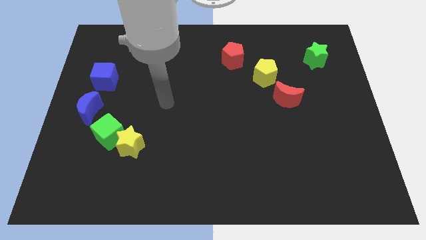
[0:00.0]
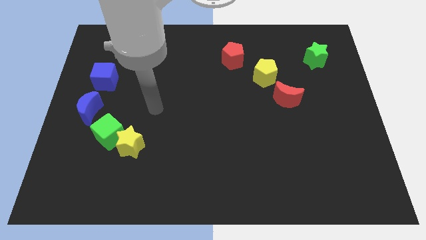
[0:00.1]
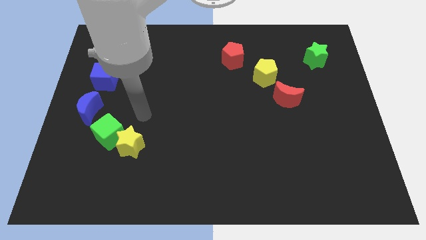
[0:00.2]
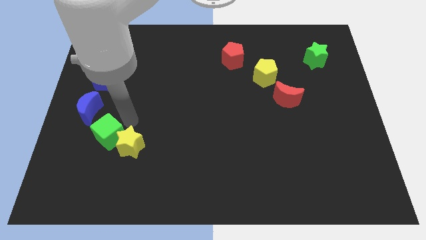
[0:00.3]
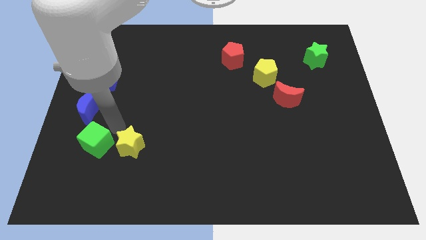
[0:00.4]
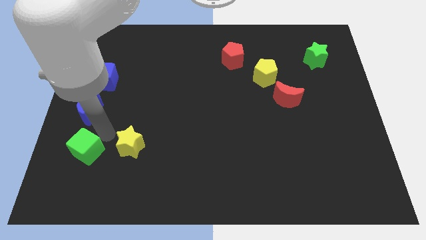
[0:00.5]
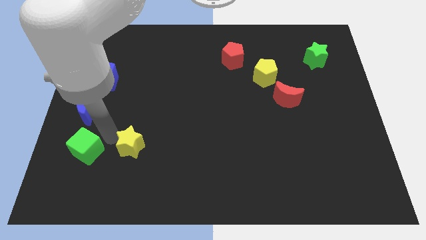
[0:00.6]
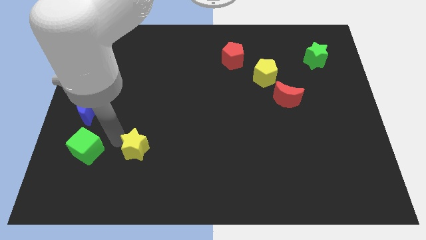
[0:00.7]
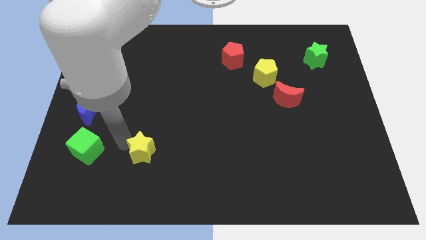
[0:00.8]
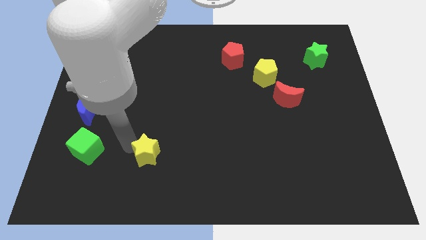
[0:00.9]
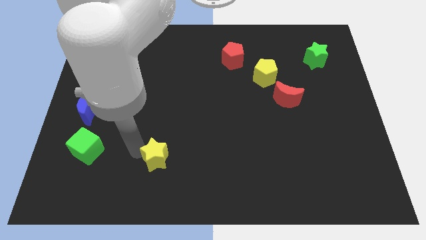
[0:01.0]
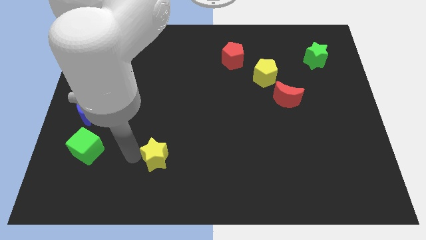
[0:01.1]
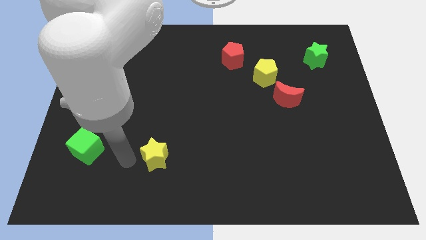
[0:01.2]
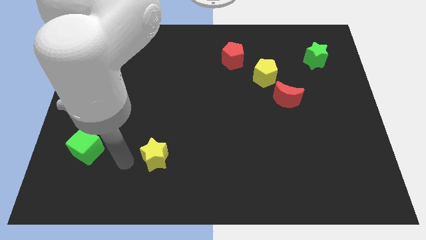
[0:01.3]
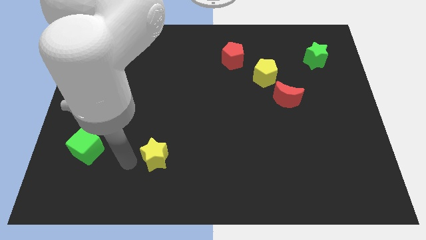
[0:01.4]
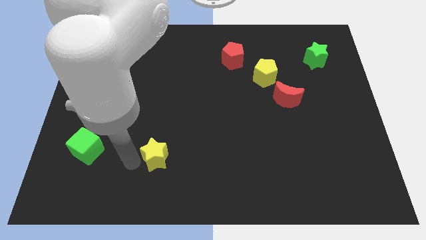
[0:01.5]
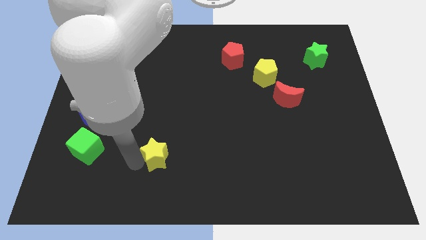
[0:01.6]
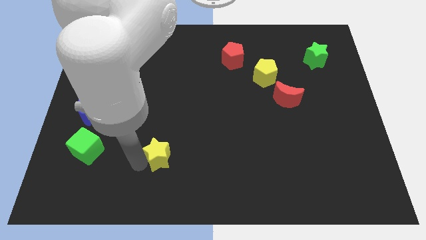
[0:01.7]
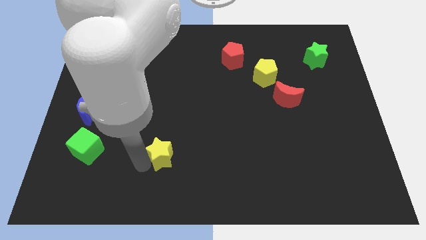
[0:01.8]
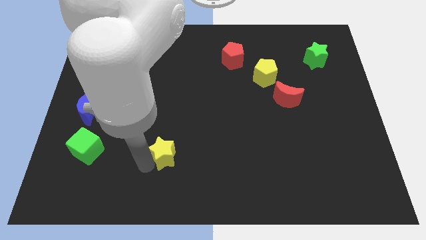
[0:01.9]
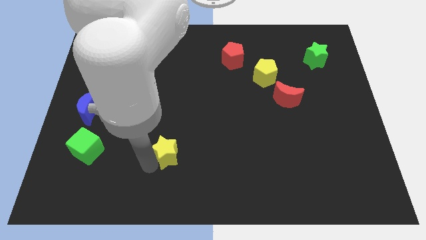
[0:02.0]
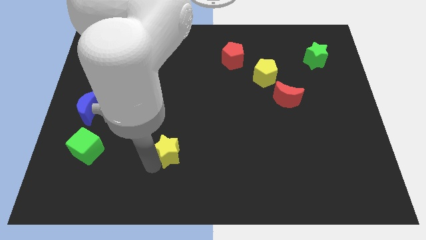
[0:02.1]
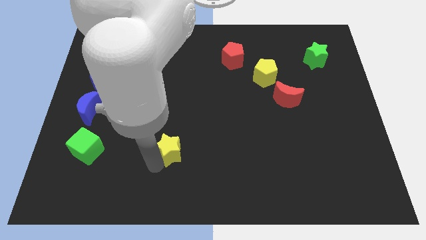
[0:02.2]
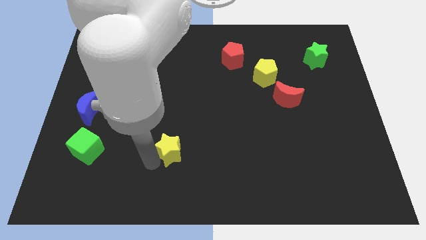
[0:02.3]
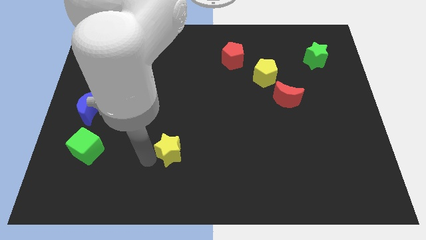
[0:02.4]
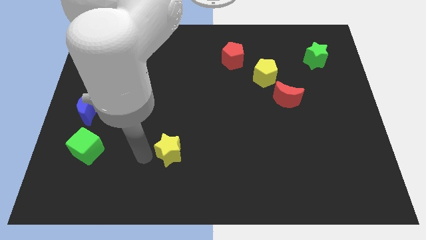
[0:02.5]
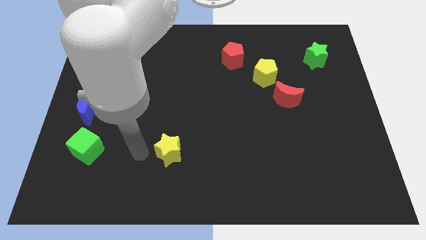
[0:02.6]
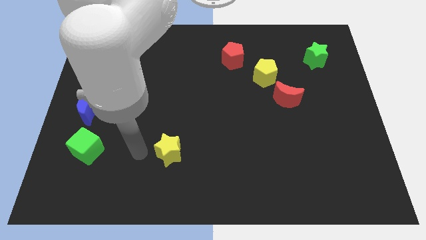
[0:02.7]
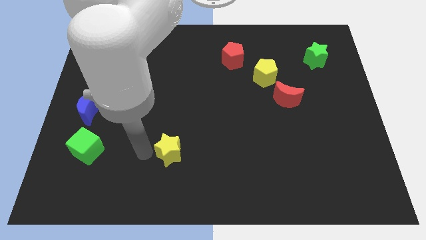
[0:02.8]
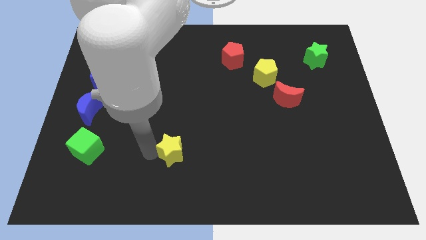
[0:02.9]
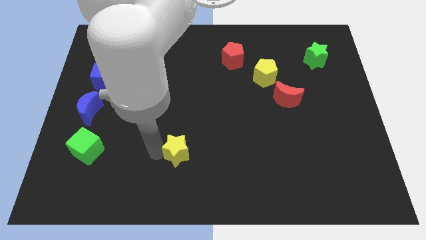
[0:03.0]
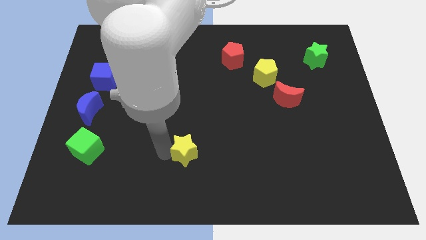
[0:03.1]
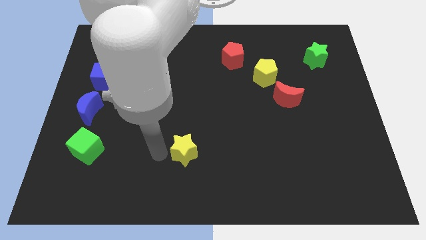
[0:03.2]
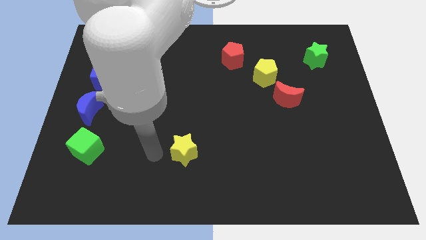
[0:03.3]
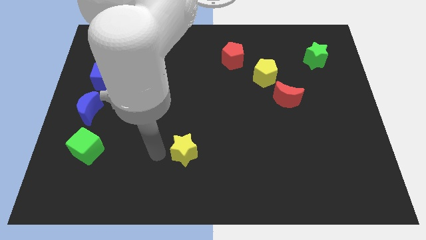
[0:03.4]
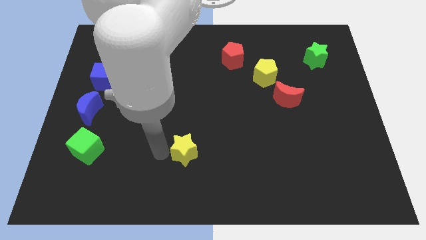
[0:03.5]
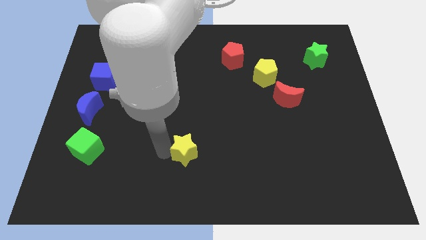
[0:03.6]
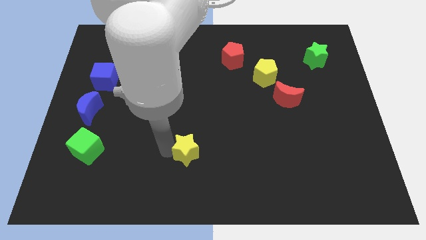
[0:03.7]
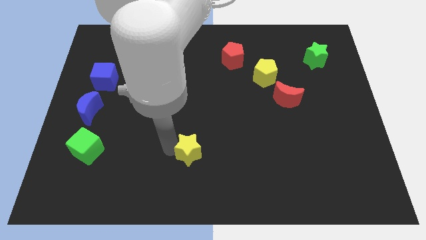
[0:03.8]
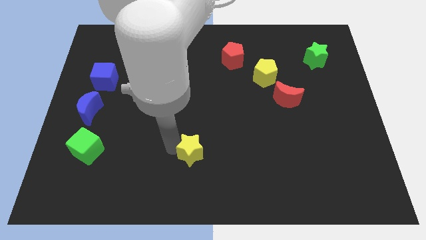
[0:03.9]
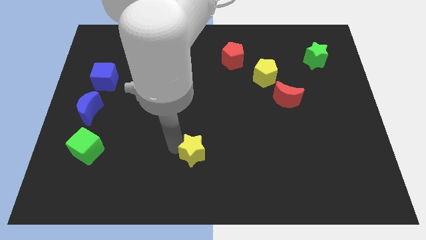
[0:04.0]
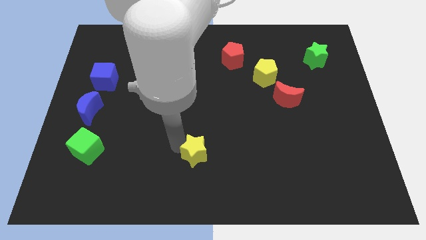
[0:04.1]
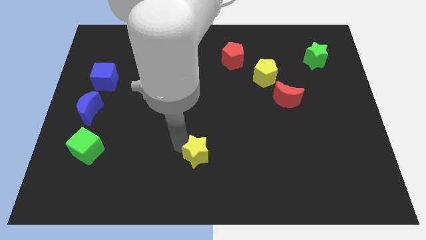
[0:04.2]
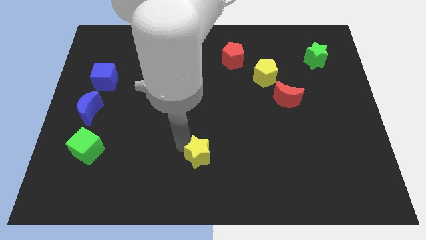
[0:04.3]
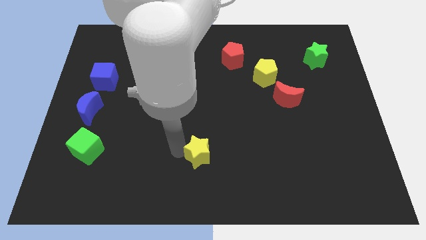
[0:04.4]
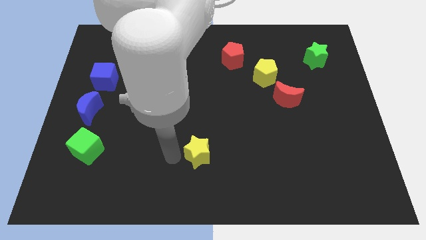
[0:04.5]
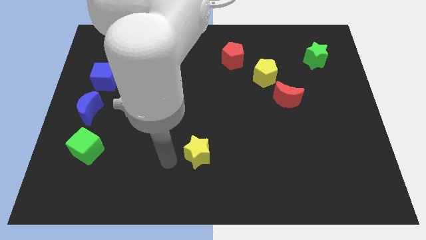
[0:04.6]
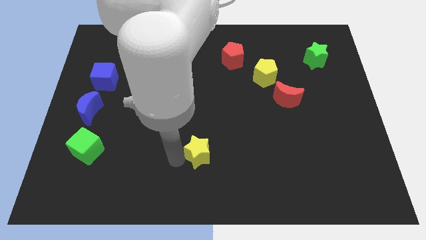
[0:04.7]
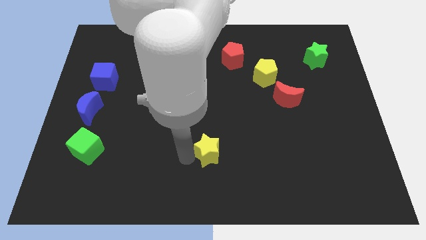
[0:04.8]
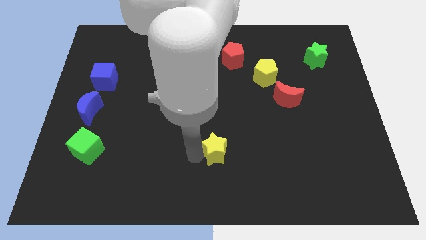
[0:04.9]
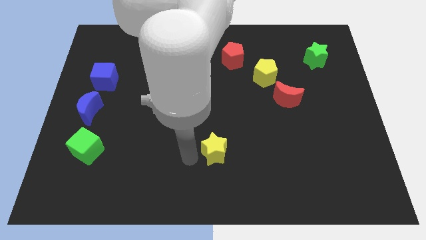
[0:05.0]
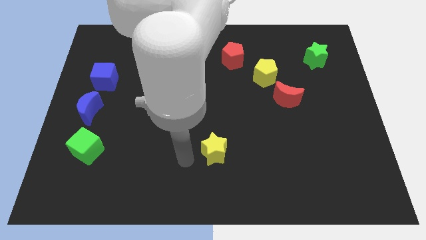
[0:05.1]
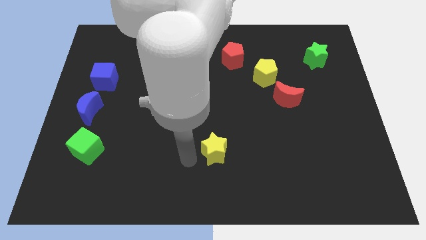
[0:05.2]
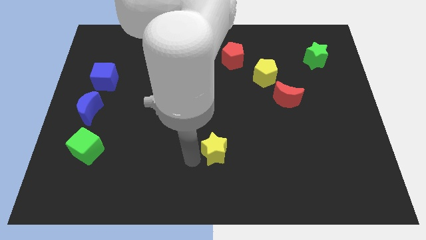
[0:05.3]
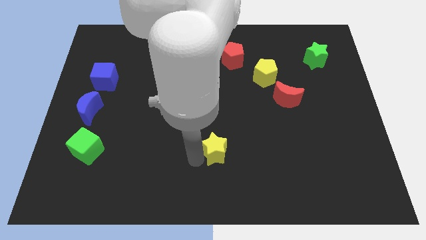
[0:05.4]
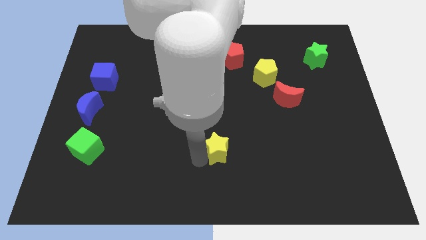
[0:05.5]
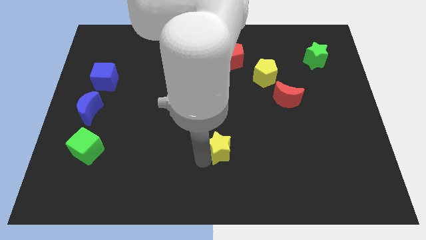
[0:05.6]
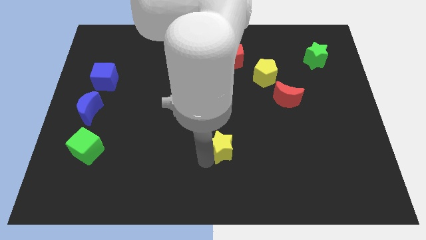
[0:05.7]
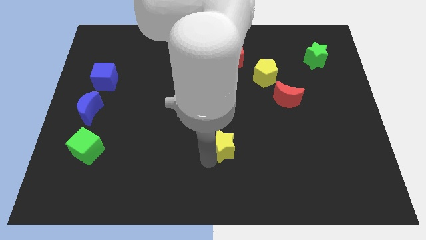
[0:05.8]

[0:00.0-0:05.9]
push the yellow star right

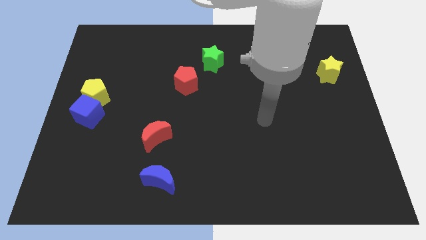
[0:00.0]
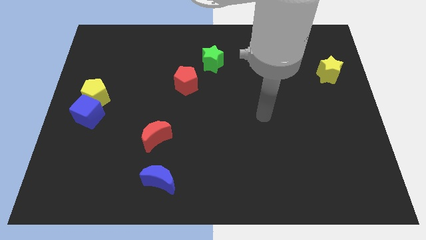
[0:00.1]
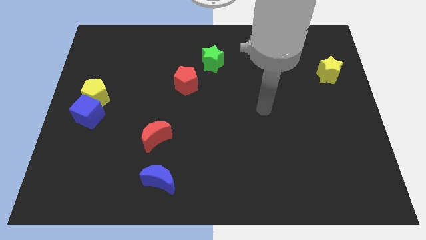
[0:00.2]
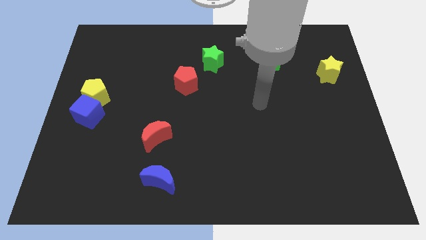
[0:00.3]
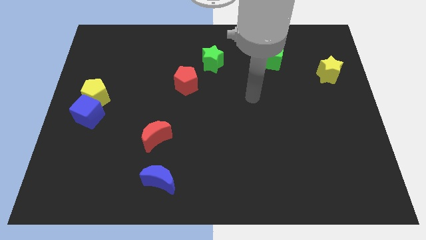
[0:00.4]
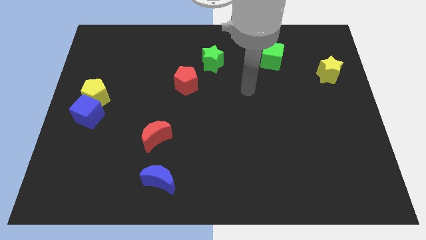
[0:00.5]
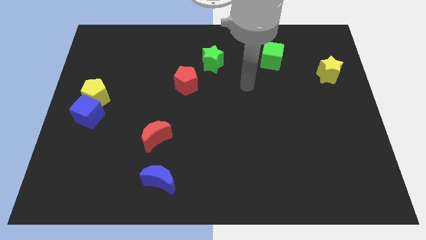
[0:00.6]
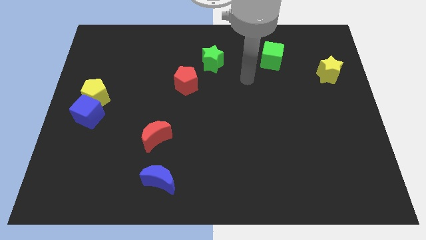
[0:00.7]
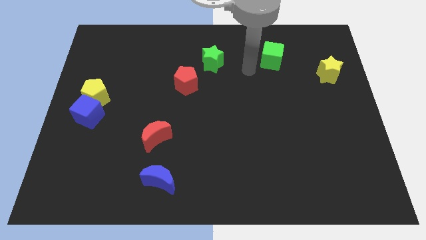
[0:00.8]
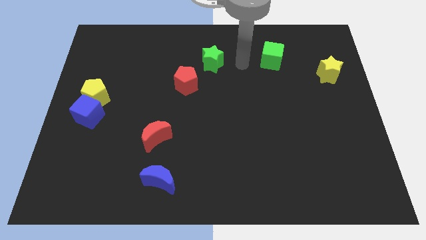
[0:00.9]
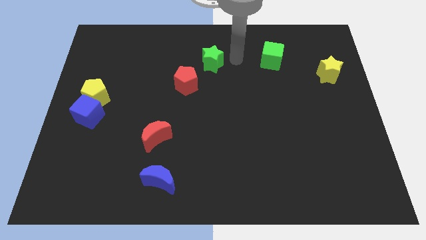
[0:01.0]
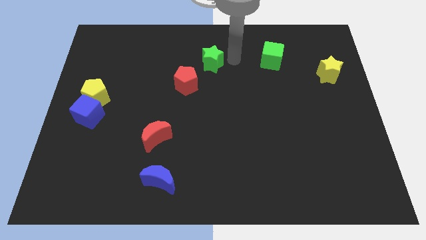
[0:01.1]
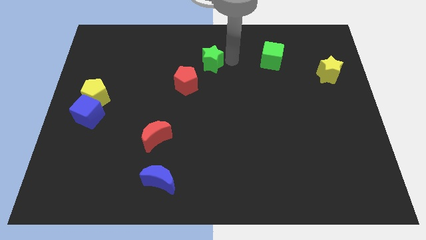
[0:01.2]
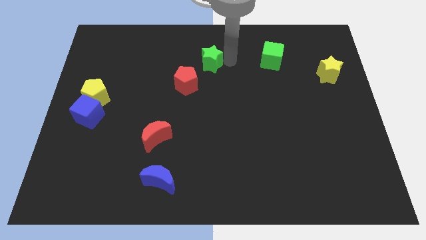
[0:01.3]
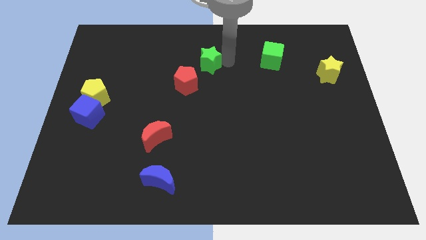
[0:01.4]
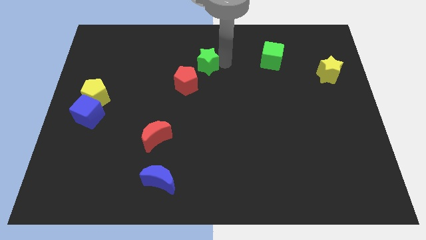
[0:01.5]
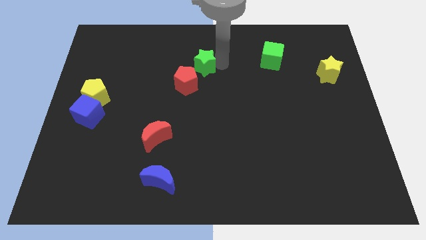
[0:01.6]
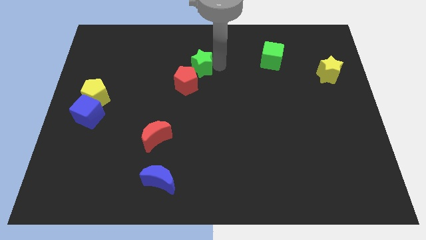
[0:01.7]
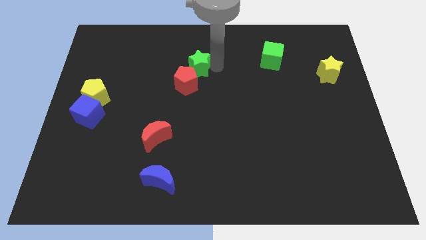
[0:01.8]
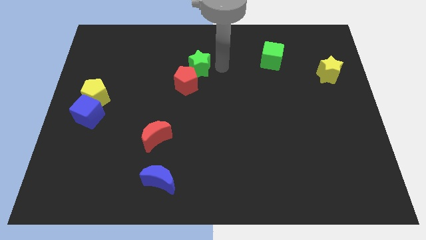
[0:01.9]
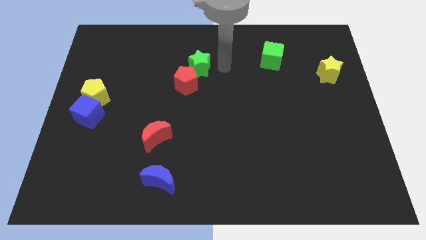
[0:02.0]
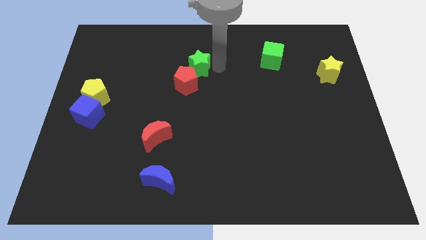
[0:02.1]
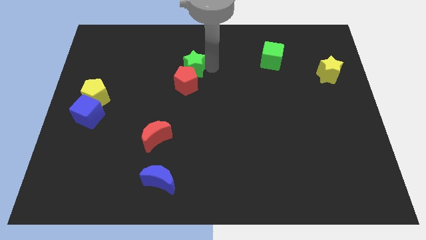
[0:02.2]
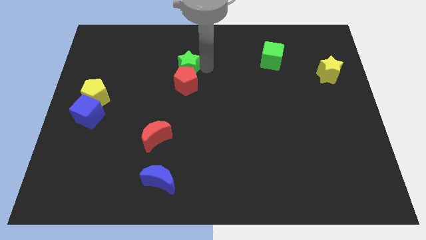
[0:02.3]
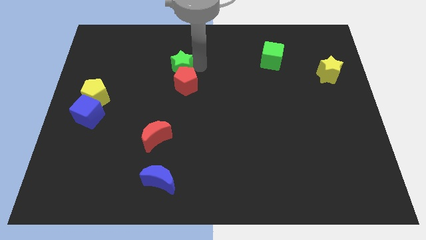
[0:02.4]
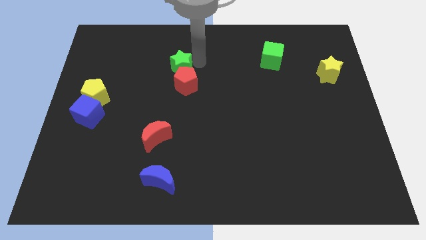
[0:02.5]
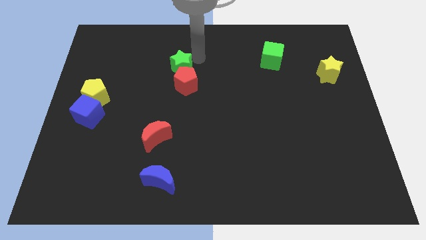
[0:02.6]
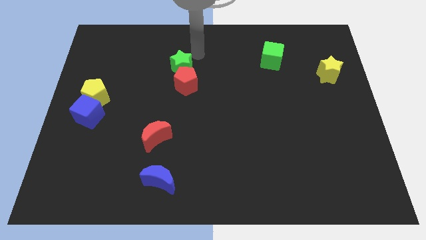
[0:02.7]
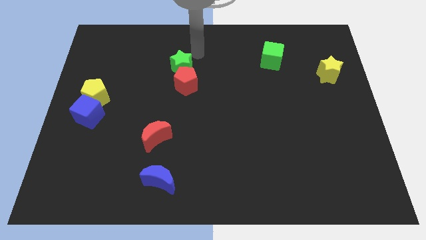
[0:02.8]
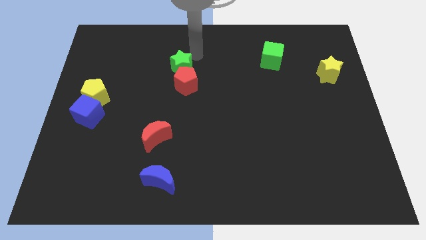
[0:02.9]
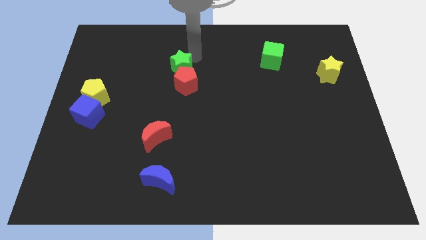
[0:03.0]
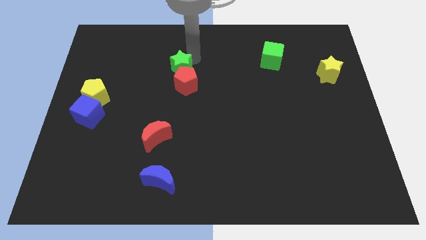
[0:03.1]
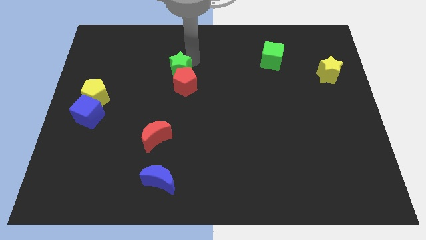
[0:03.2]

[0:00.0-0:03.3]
push the green star down and then left a little
